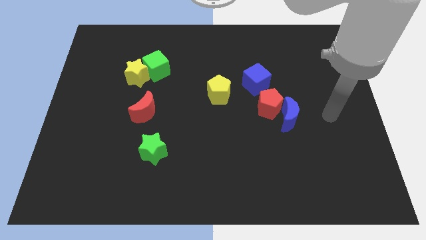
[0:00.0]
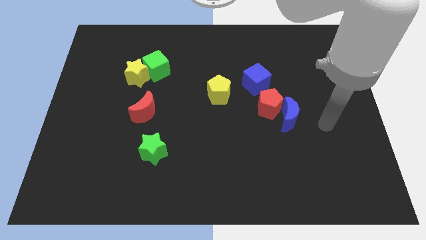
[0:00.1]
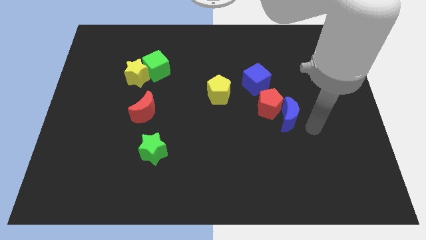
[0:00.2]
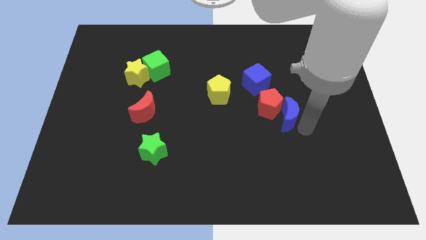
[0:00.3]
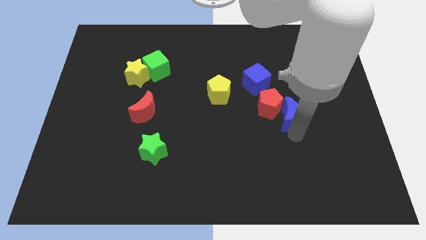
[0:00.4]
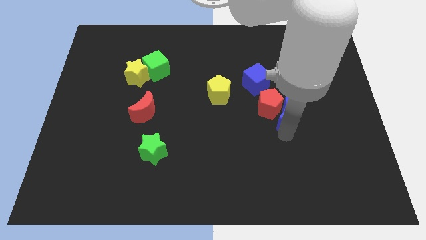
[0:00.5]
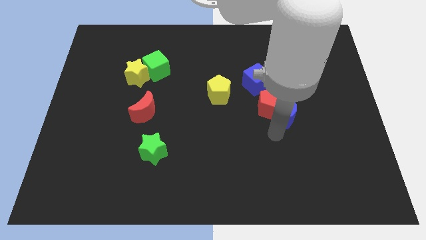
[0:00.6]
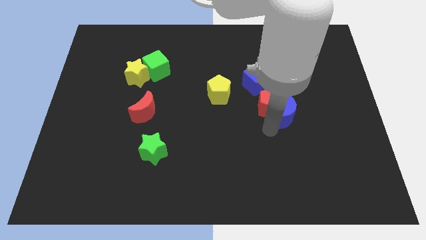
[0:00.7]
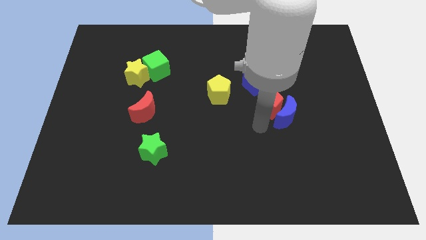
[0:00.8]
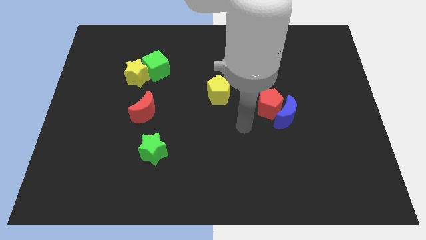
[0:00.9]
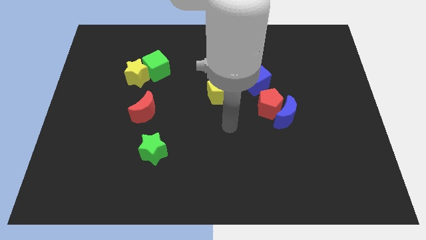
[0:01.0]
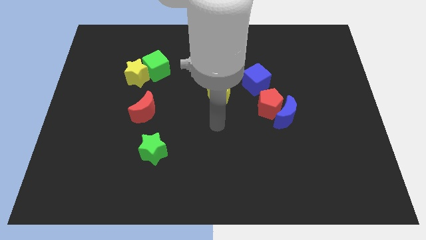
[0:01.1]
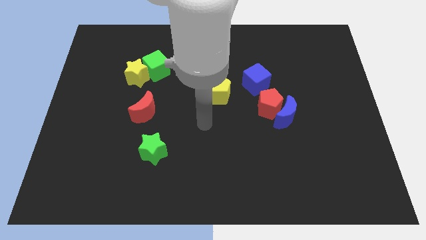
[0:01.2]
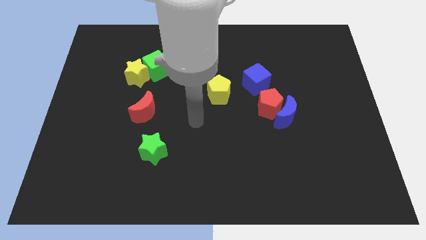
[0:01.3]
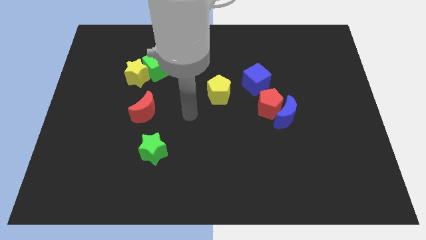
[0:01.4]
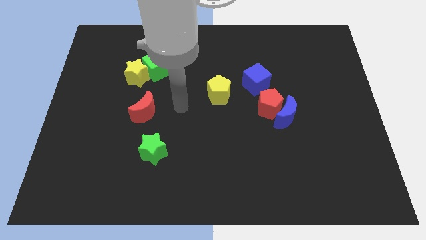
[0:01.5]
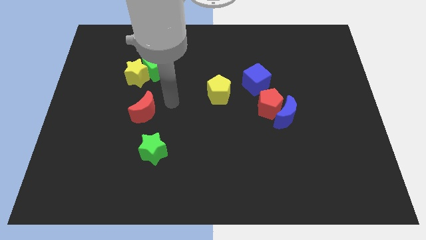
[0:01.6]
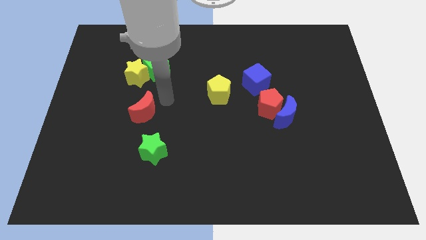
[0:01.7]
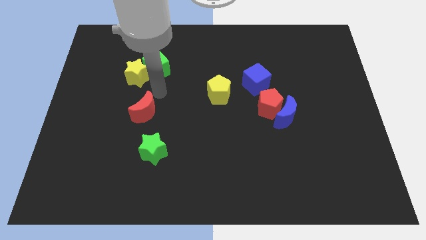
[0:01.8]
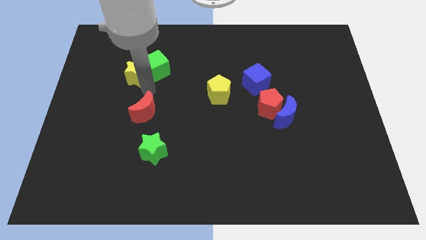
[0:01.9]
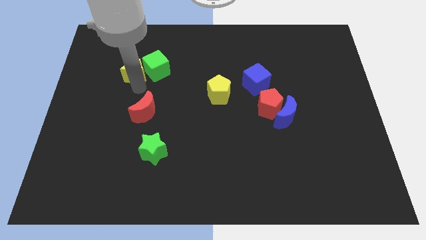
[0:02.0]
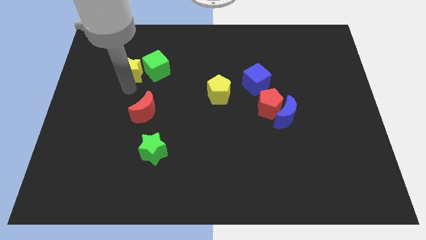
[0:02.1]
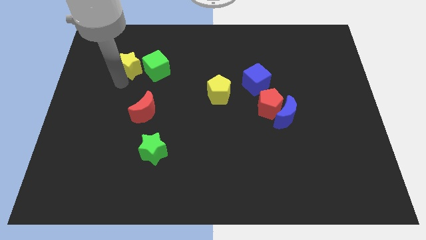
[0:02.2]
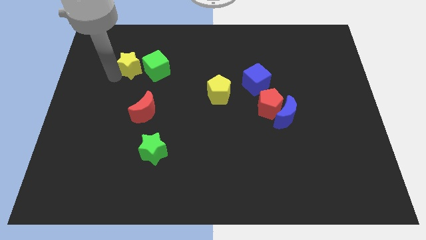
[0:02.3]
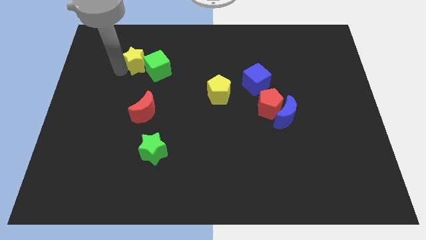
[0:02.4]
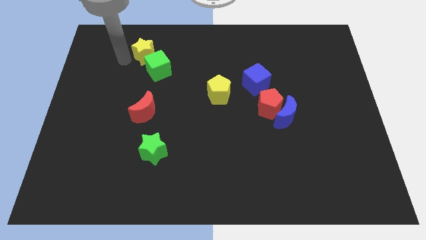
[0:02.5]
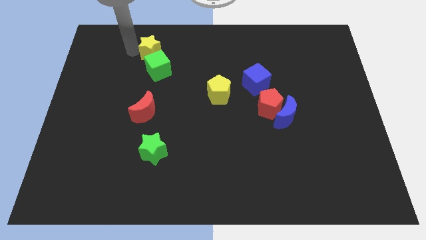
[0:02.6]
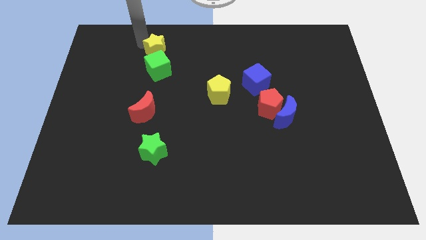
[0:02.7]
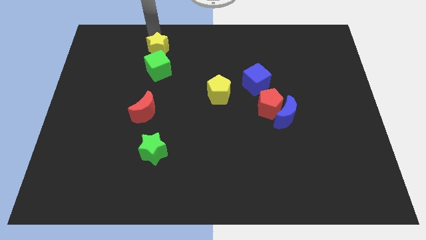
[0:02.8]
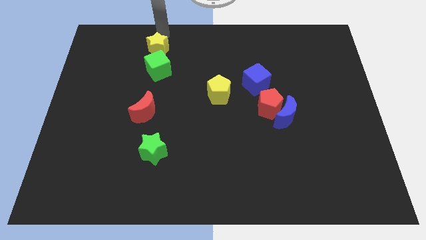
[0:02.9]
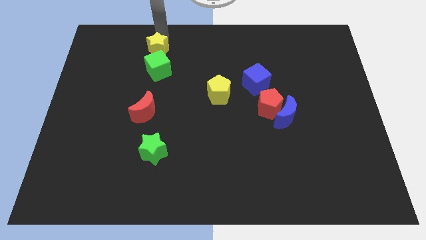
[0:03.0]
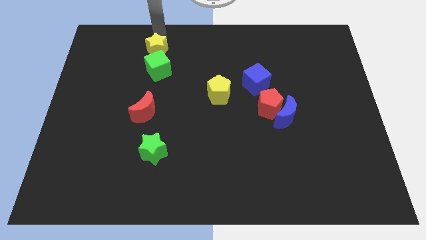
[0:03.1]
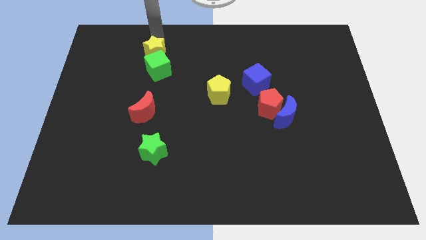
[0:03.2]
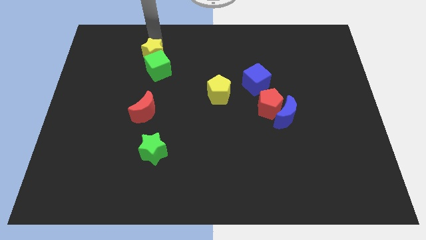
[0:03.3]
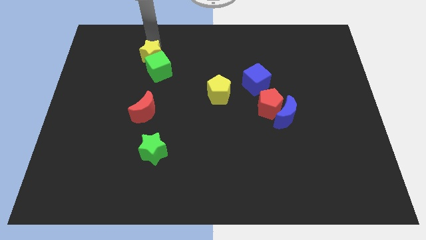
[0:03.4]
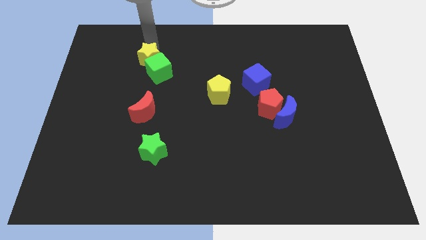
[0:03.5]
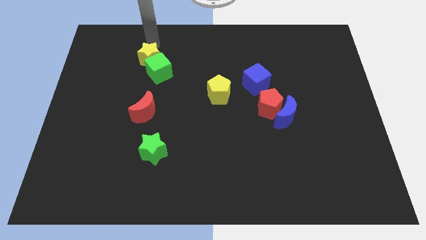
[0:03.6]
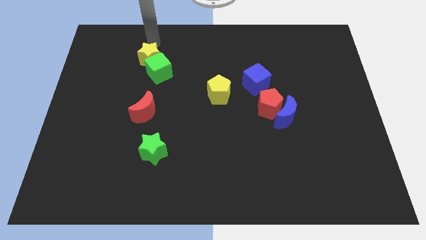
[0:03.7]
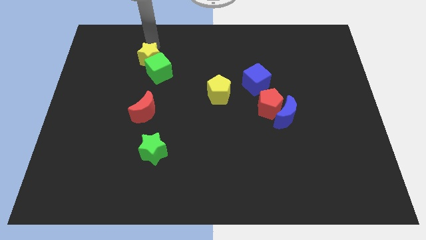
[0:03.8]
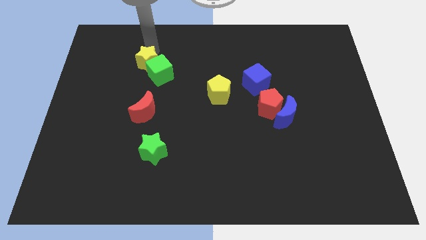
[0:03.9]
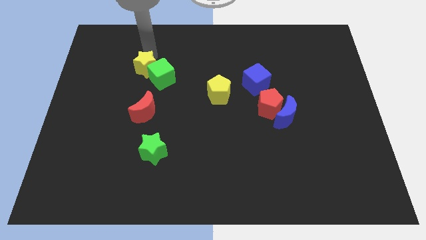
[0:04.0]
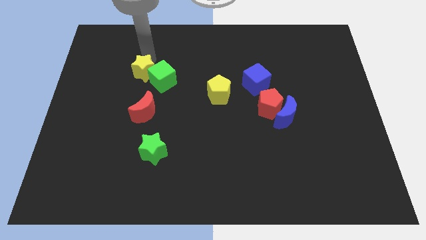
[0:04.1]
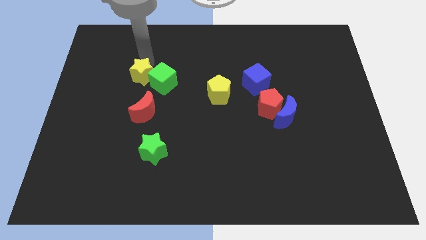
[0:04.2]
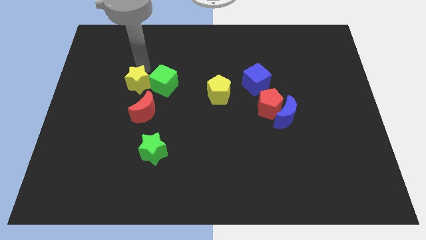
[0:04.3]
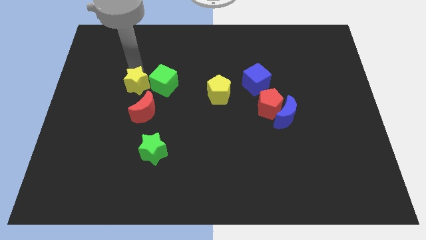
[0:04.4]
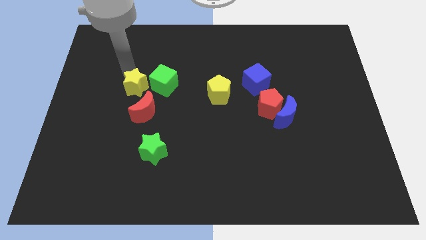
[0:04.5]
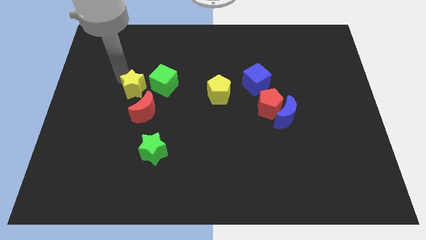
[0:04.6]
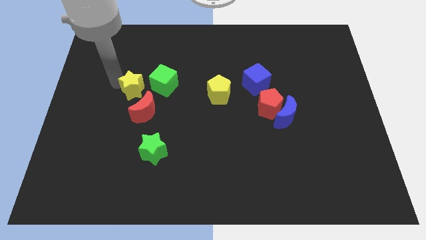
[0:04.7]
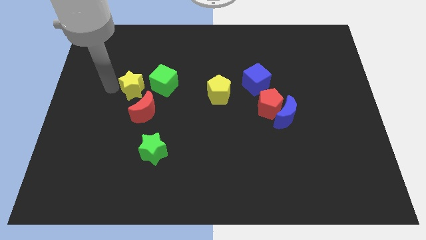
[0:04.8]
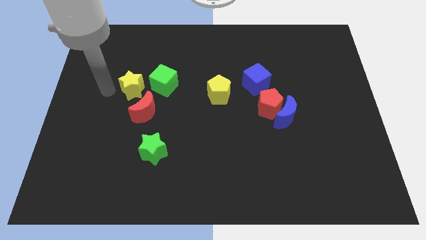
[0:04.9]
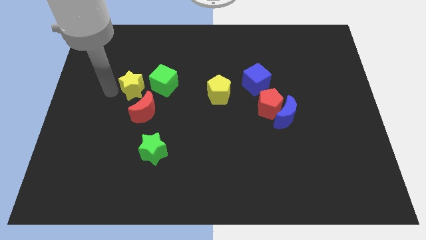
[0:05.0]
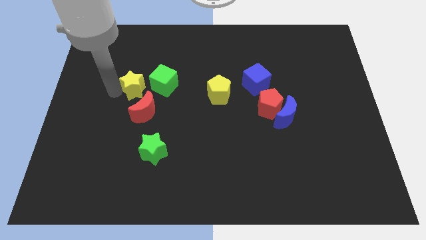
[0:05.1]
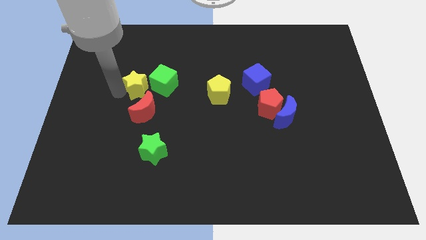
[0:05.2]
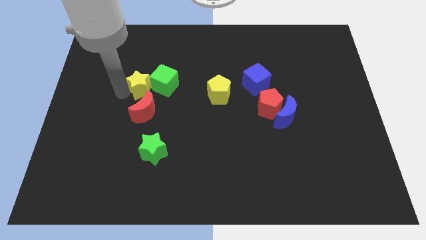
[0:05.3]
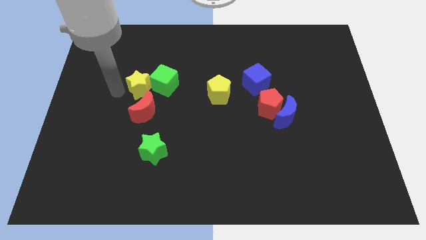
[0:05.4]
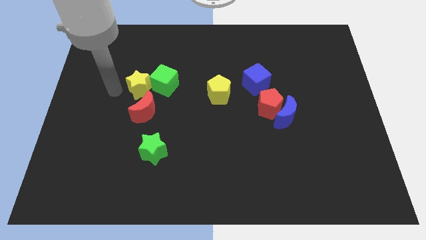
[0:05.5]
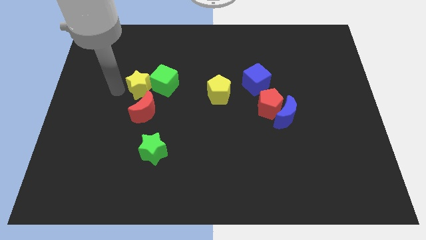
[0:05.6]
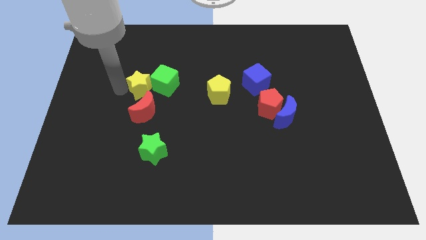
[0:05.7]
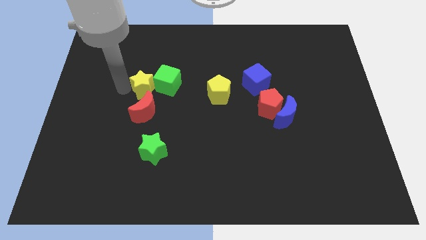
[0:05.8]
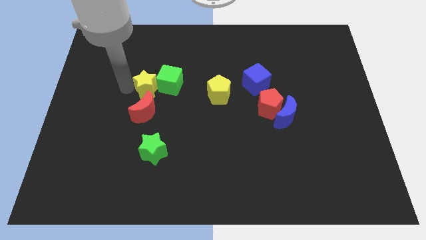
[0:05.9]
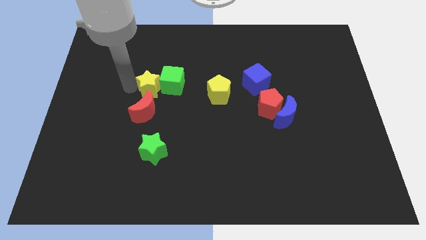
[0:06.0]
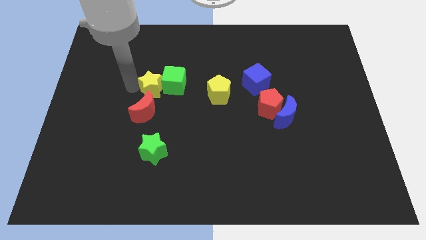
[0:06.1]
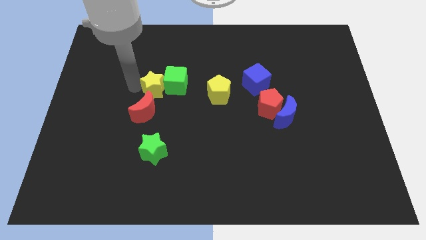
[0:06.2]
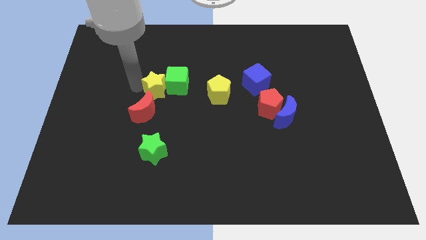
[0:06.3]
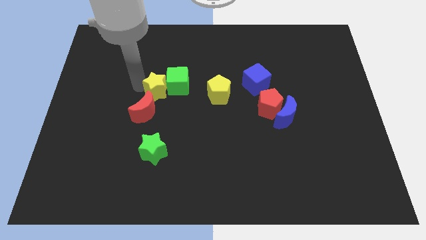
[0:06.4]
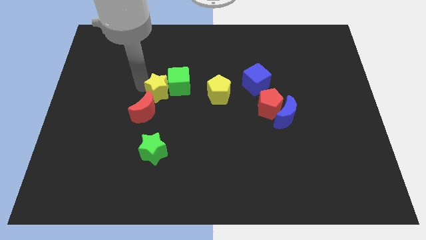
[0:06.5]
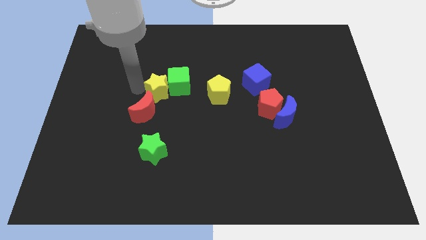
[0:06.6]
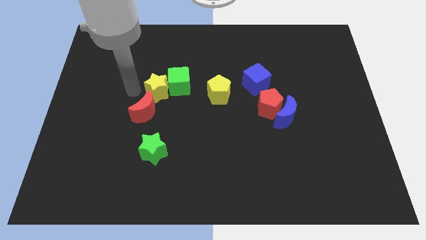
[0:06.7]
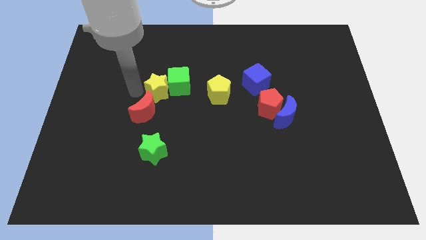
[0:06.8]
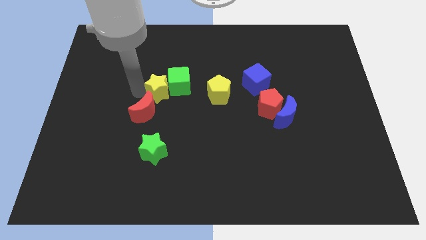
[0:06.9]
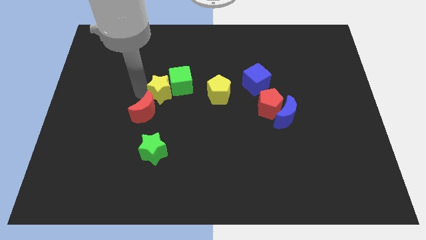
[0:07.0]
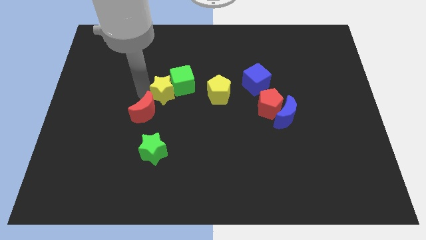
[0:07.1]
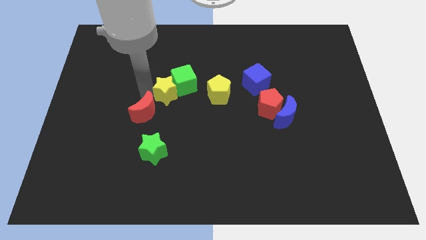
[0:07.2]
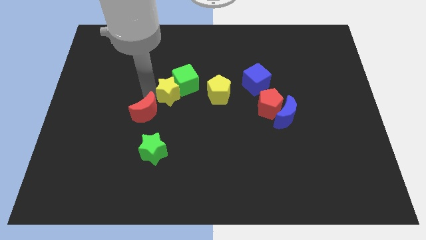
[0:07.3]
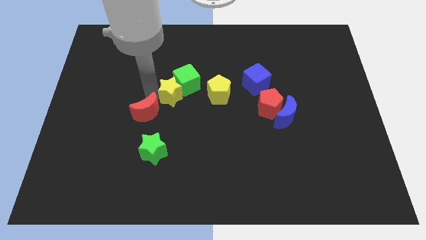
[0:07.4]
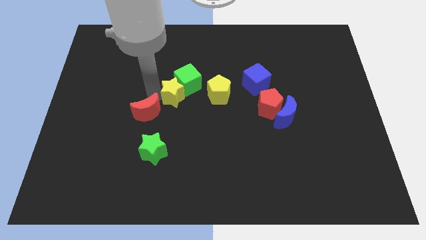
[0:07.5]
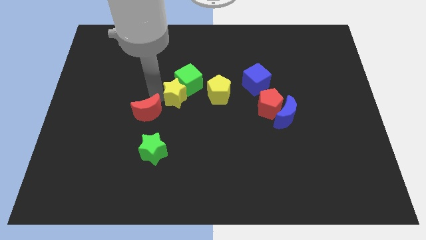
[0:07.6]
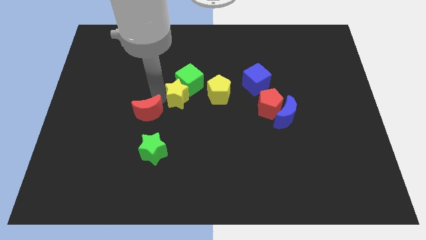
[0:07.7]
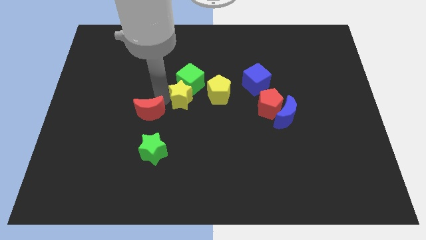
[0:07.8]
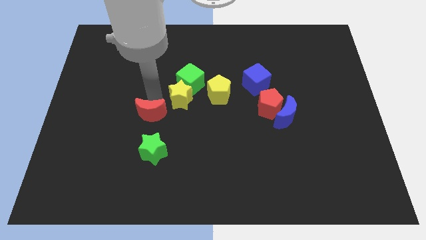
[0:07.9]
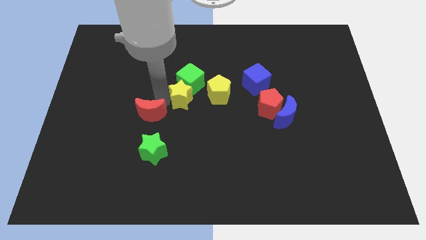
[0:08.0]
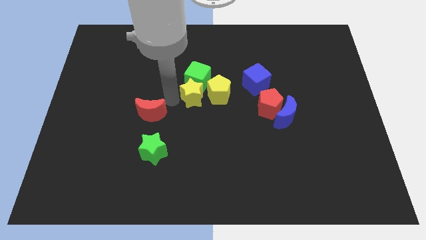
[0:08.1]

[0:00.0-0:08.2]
move the yellow star to the yellow pentagon
